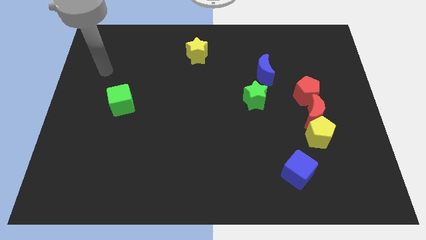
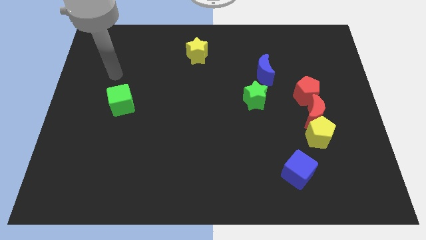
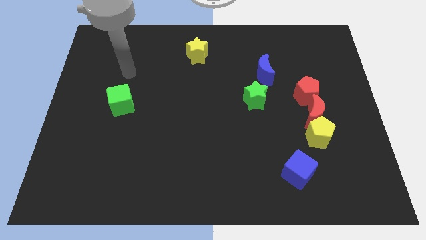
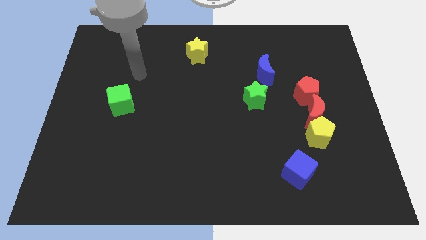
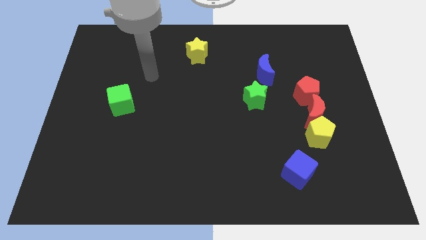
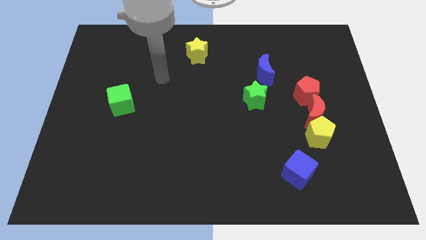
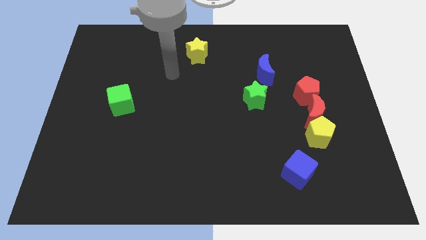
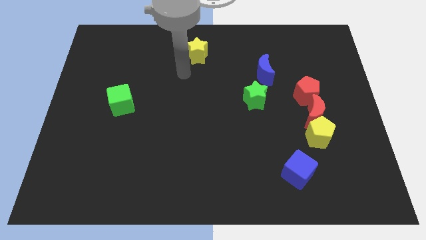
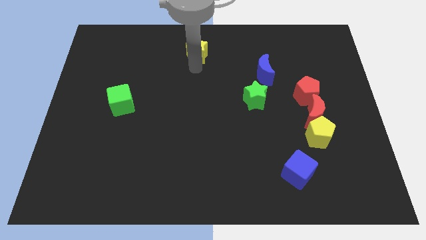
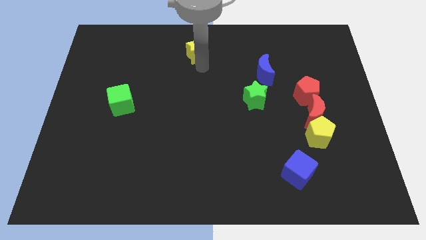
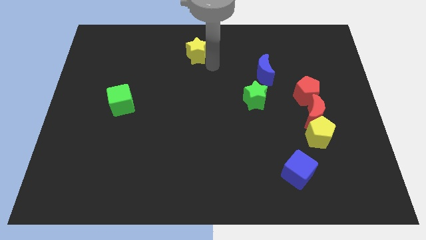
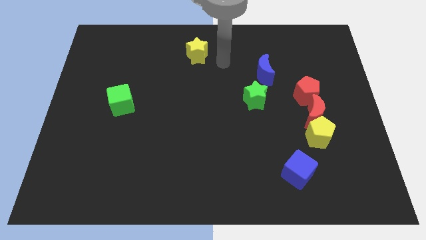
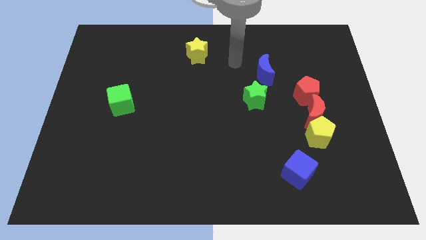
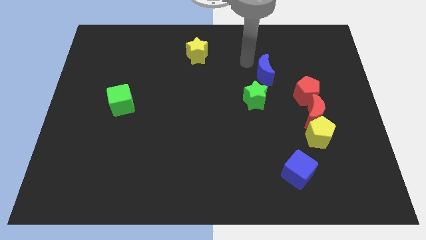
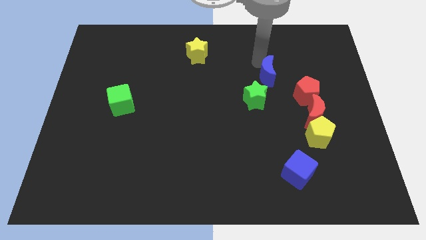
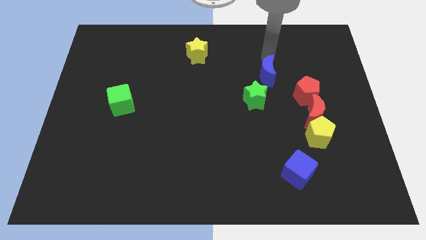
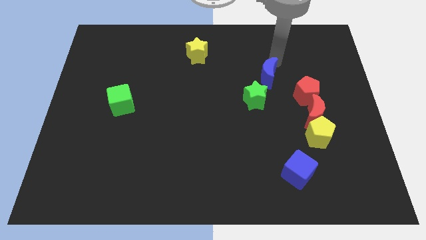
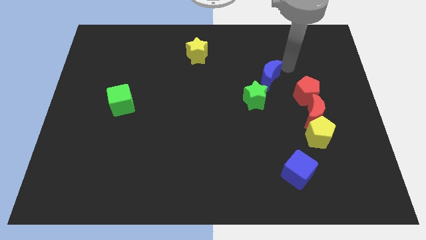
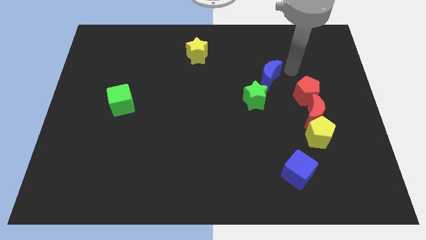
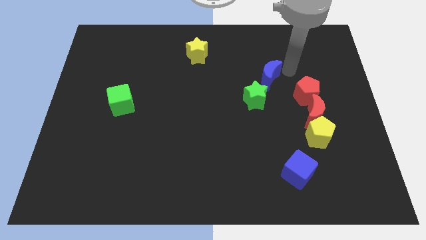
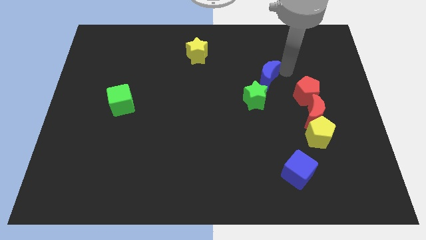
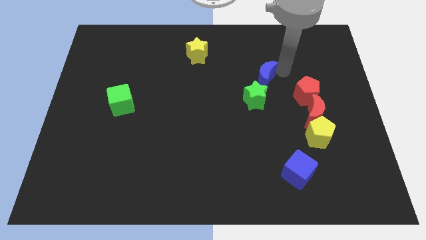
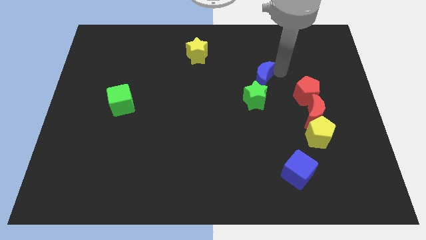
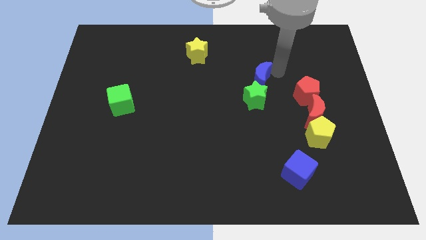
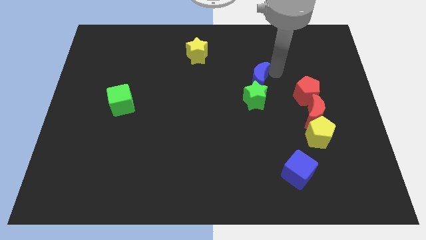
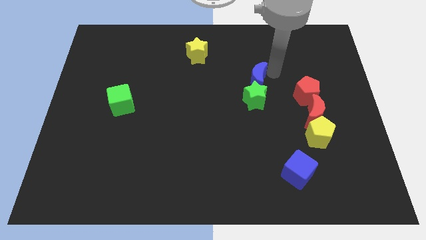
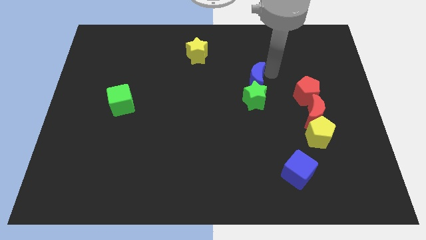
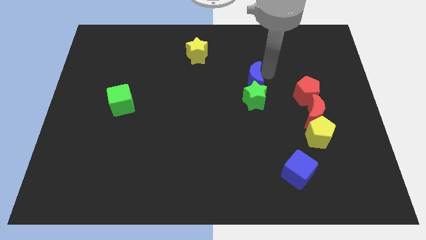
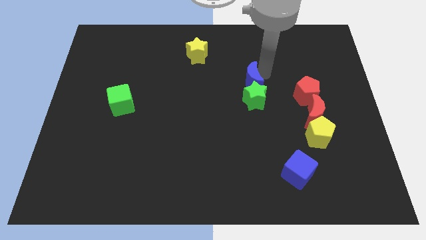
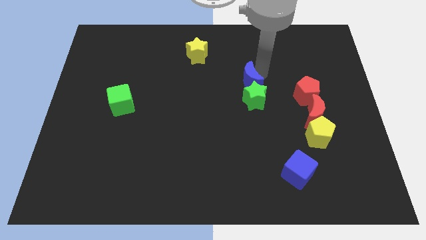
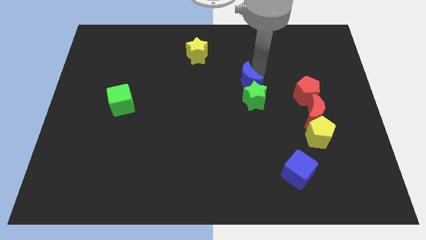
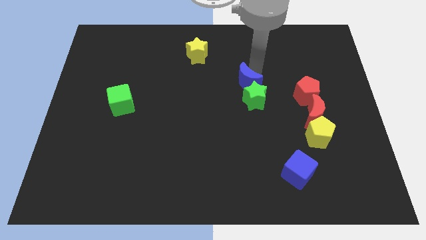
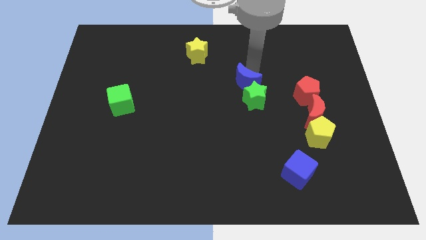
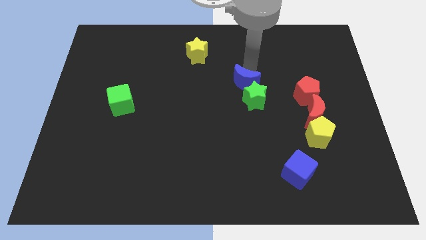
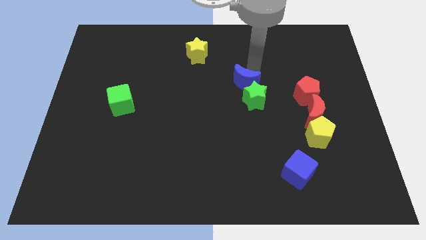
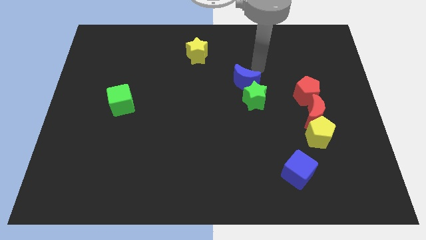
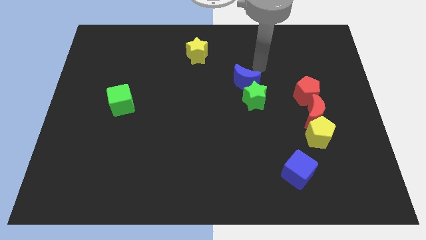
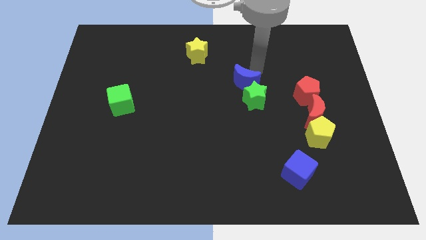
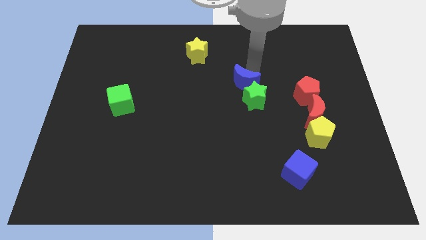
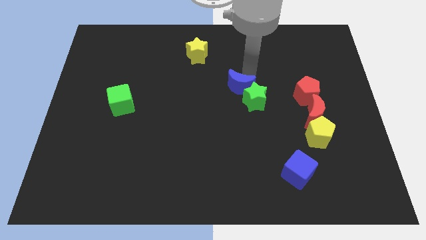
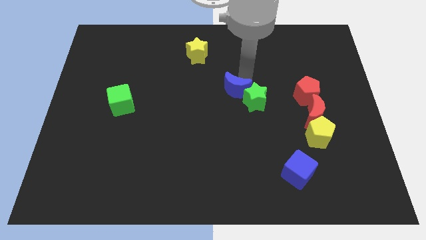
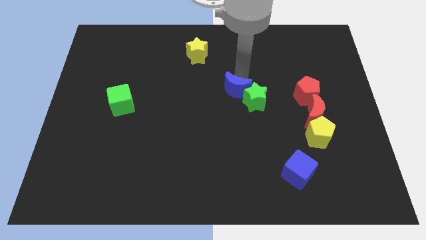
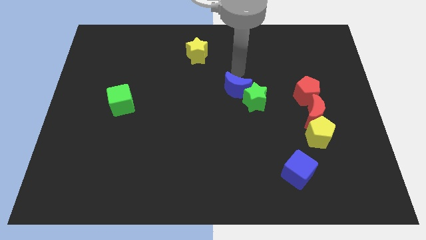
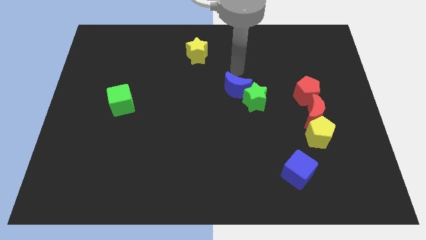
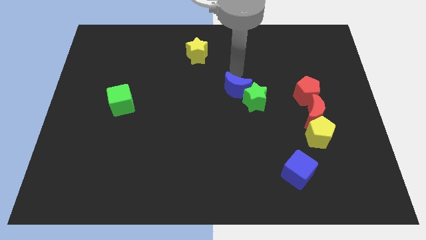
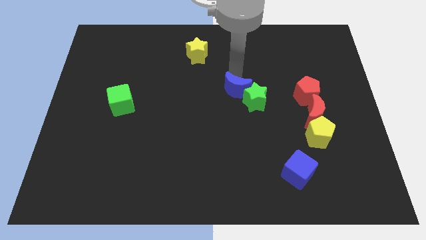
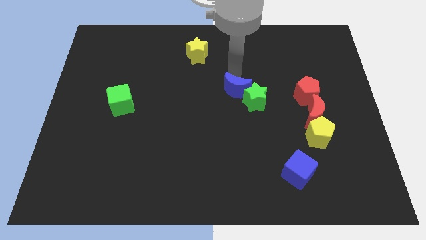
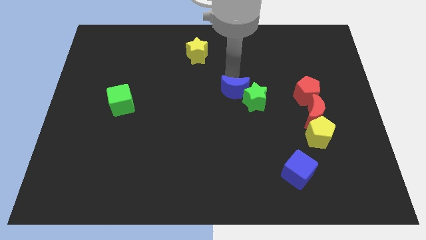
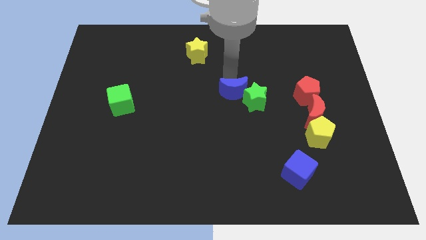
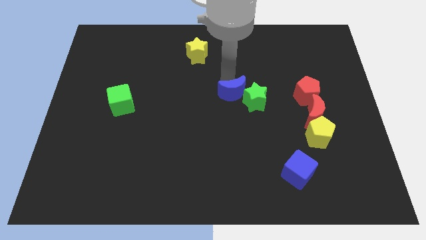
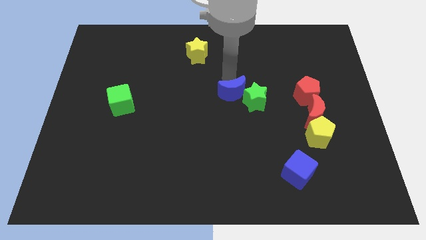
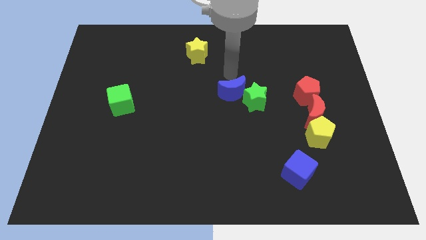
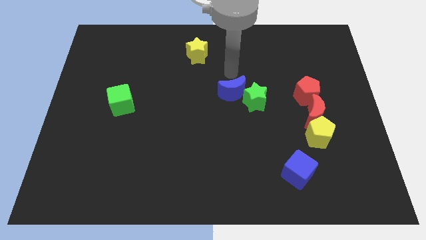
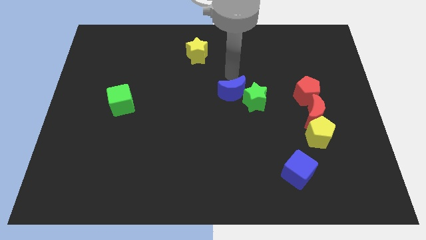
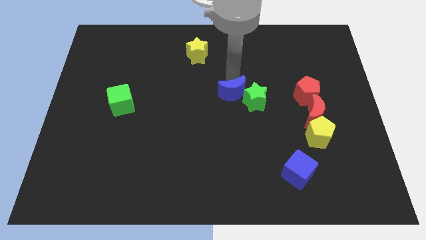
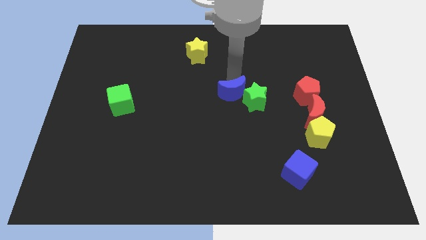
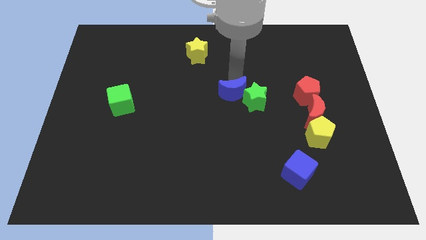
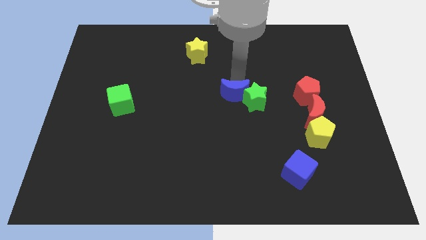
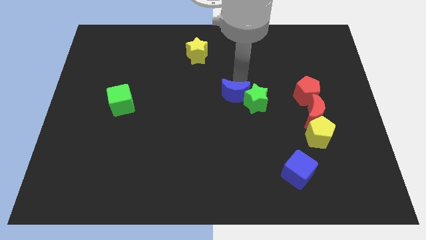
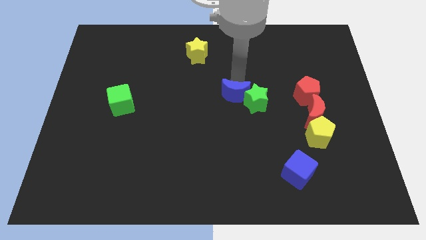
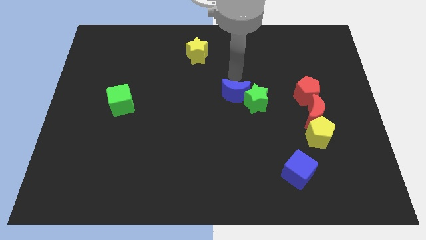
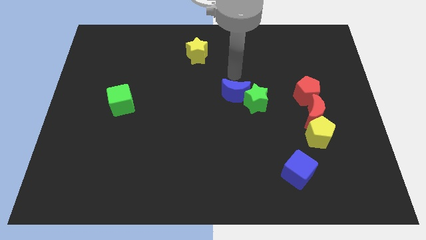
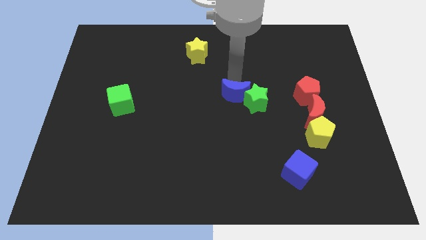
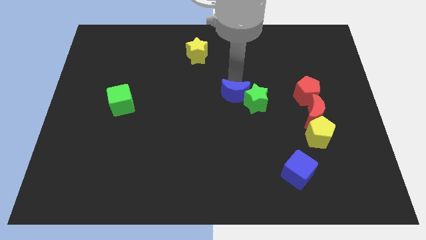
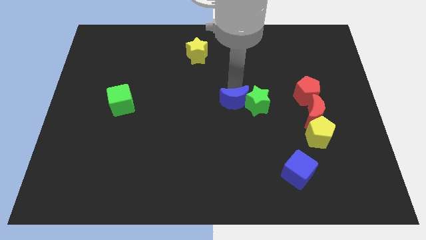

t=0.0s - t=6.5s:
push the blue moon diagonally down and to the left of the green star

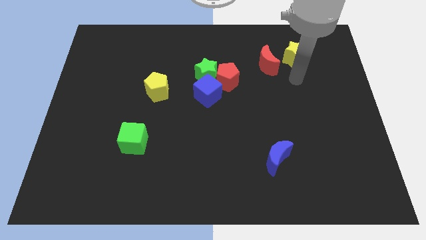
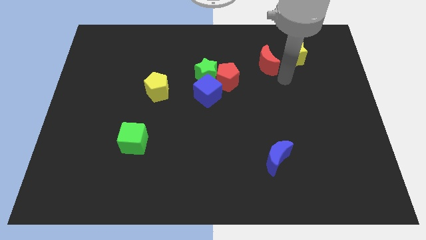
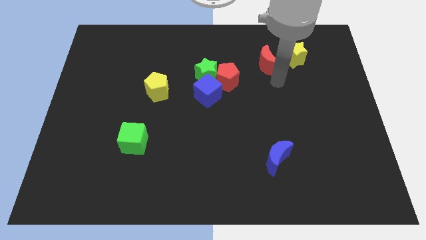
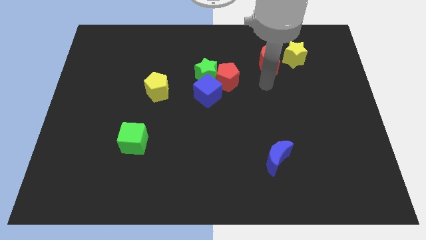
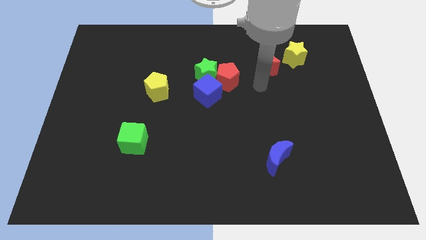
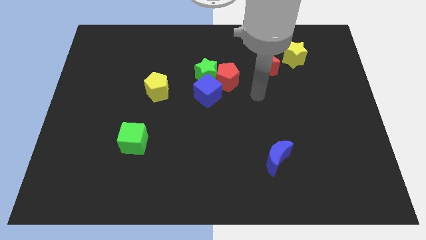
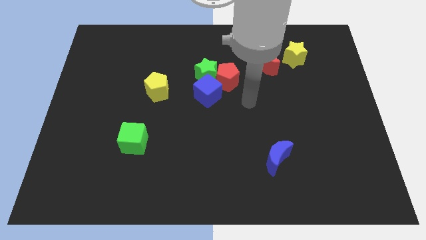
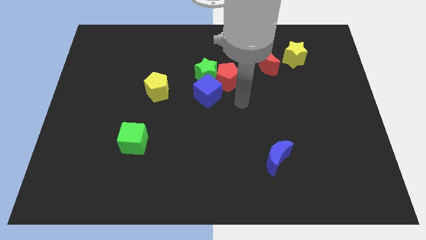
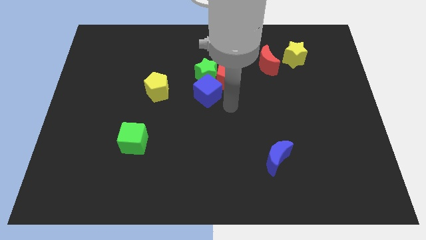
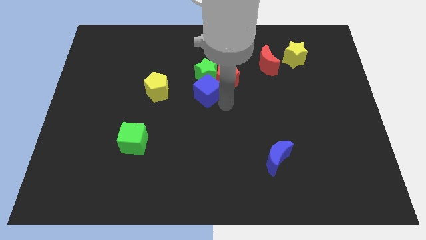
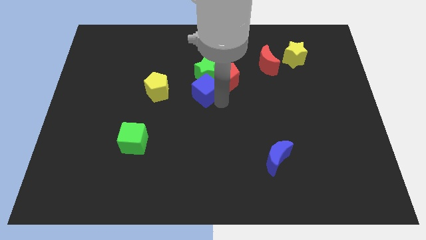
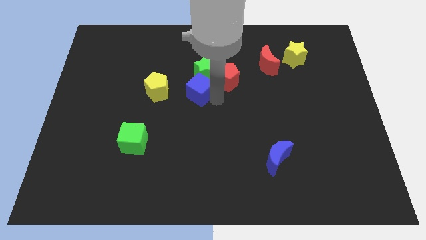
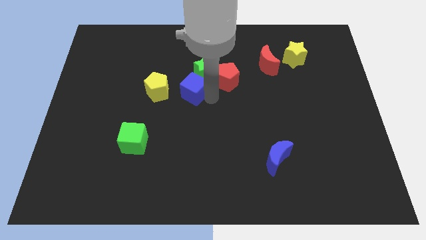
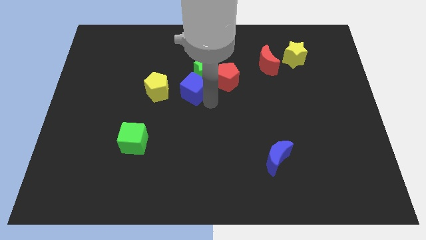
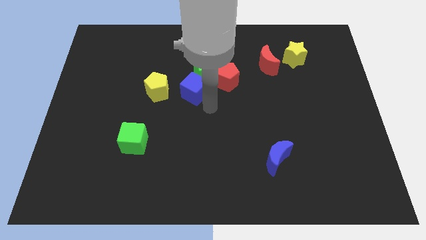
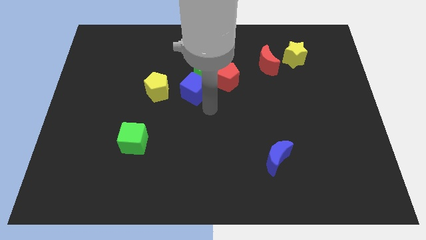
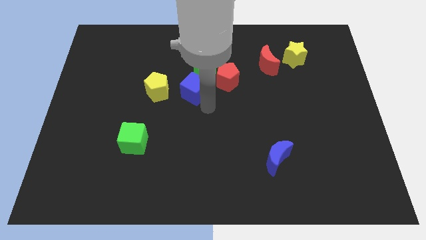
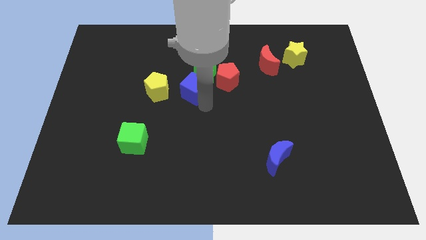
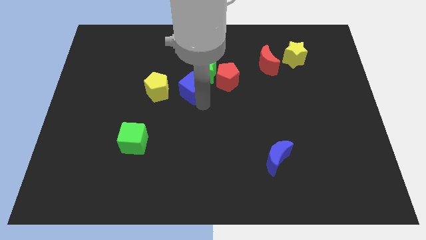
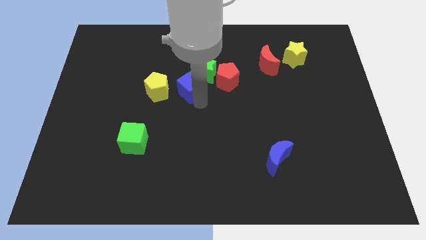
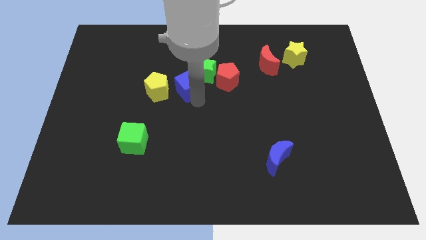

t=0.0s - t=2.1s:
push the blue cube to the top right of the yellow pentagon
